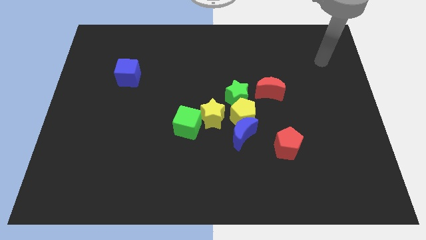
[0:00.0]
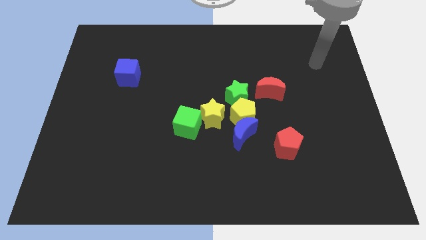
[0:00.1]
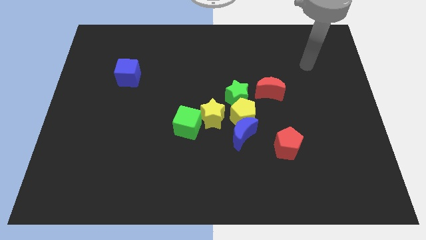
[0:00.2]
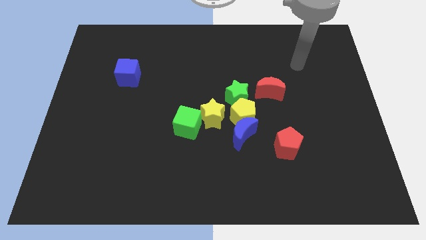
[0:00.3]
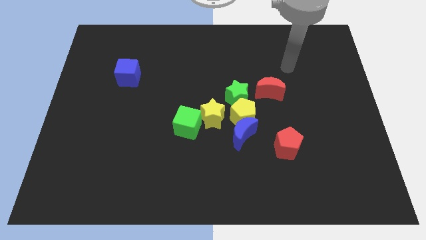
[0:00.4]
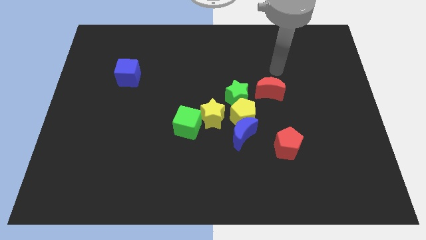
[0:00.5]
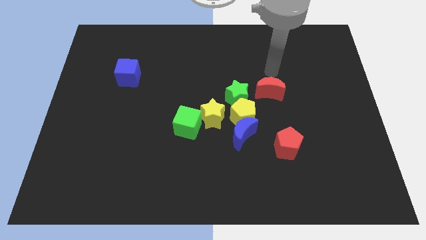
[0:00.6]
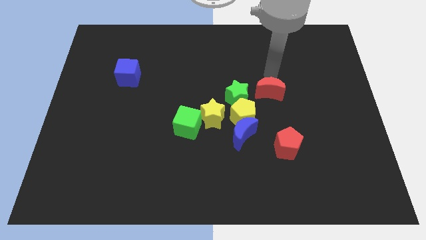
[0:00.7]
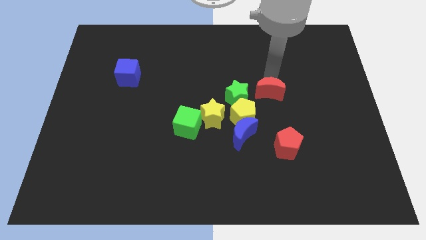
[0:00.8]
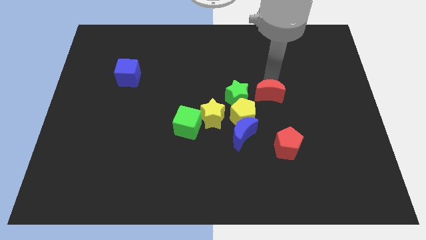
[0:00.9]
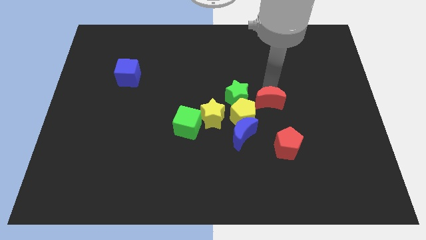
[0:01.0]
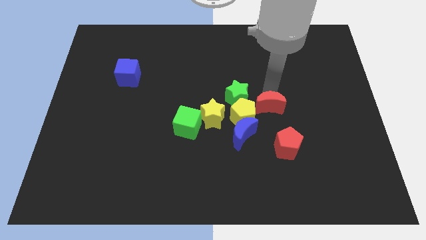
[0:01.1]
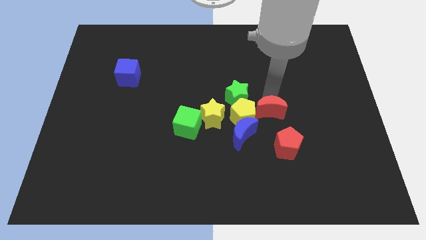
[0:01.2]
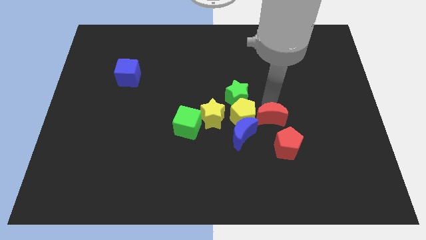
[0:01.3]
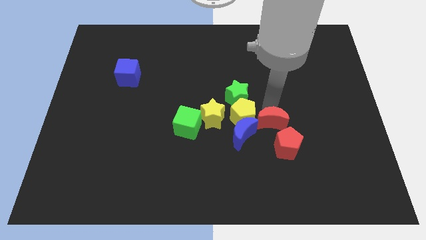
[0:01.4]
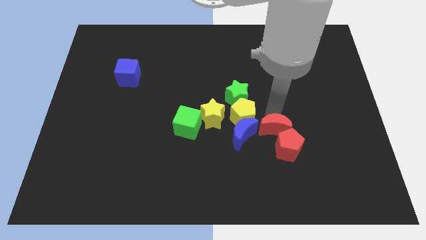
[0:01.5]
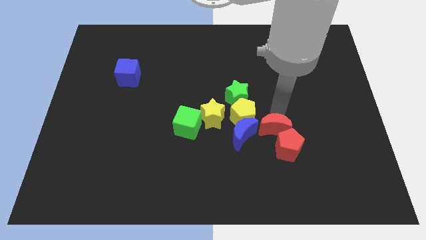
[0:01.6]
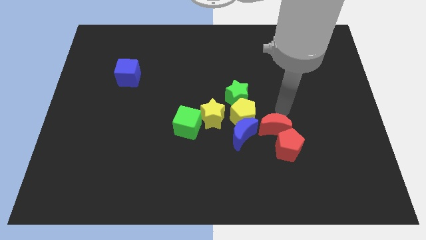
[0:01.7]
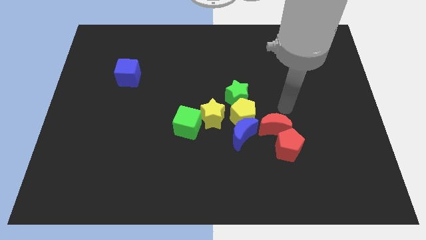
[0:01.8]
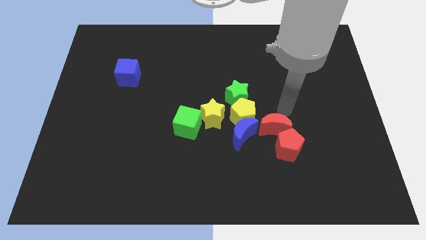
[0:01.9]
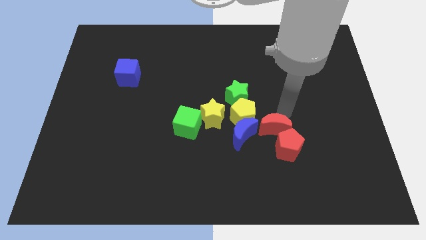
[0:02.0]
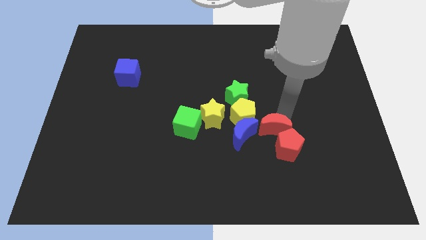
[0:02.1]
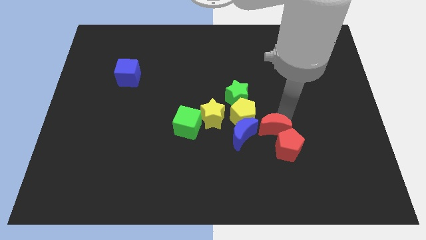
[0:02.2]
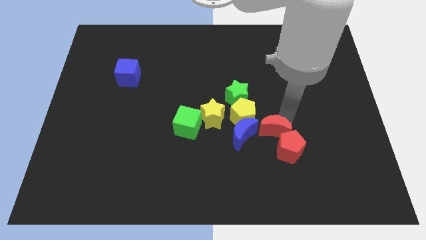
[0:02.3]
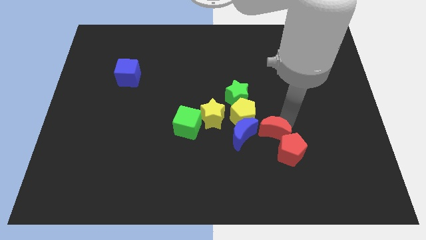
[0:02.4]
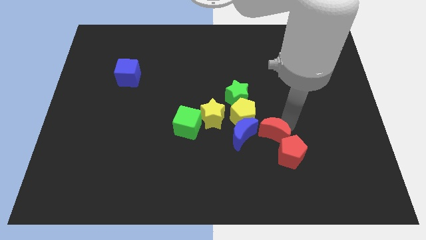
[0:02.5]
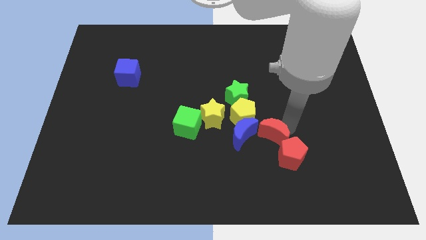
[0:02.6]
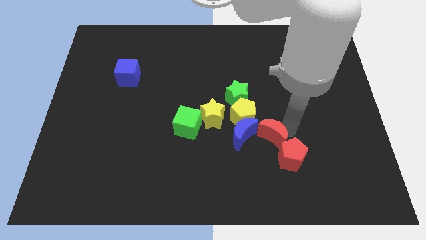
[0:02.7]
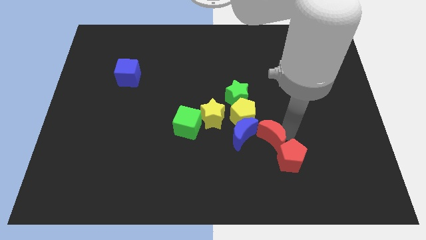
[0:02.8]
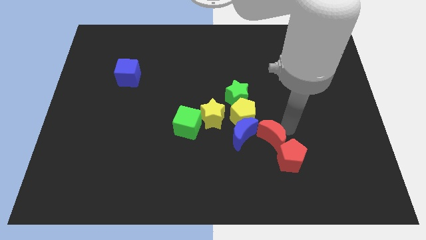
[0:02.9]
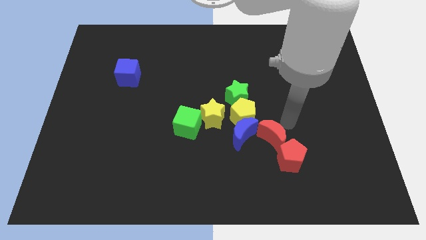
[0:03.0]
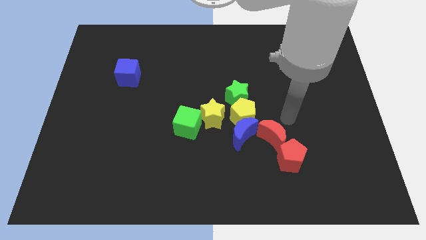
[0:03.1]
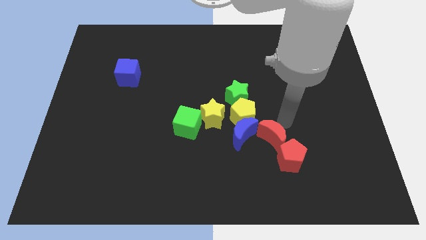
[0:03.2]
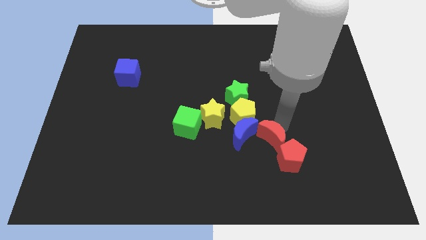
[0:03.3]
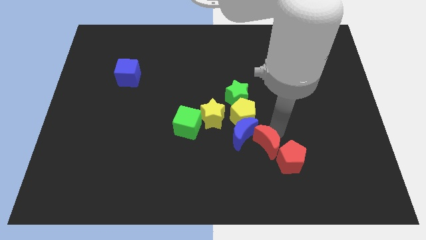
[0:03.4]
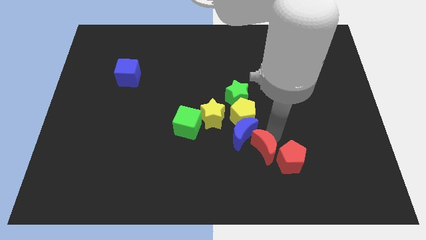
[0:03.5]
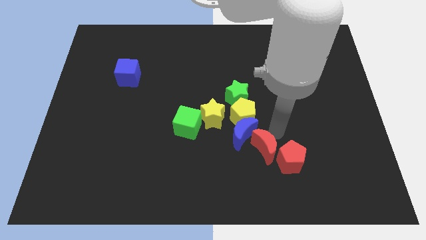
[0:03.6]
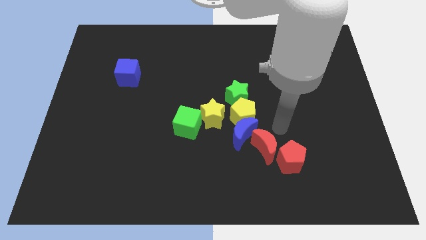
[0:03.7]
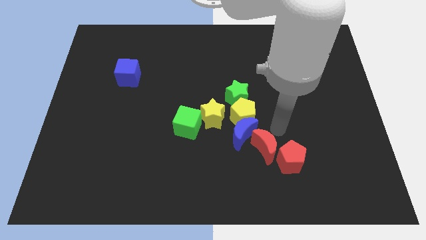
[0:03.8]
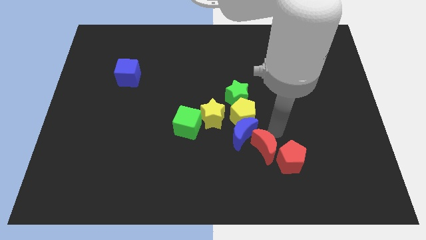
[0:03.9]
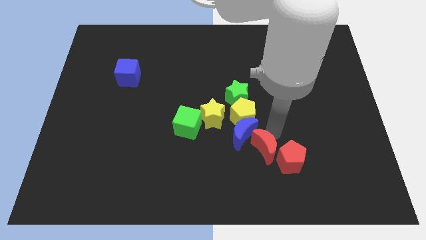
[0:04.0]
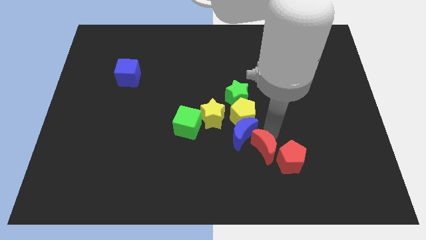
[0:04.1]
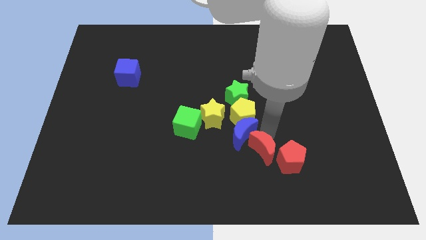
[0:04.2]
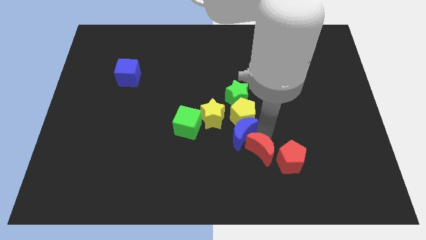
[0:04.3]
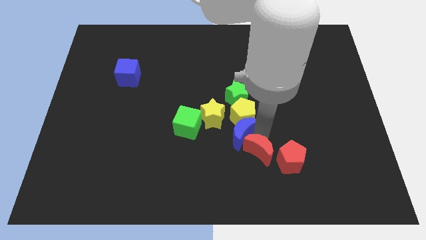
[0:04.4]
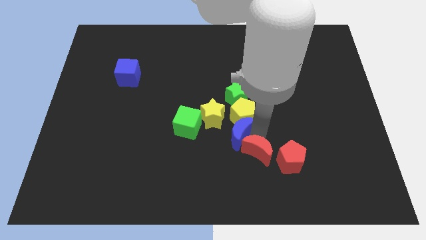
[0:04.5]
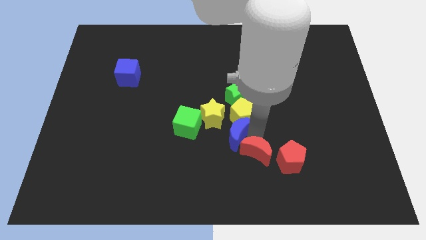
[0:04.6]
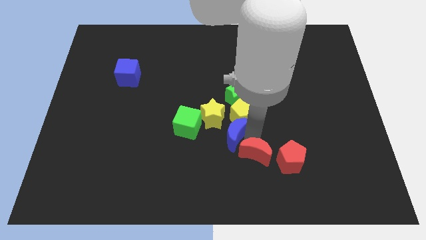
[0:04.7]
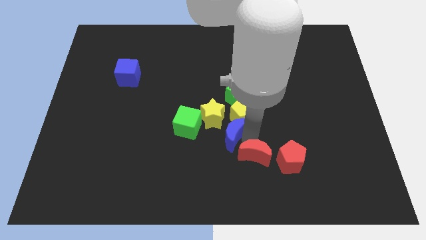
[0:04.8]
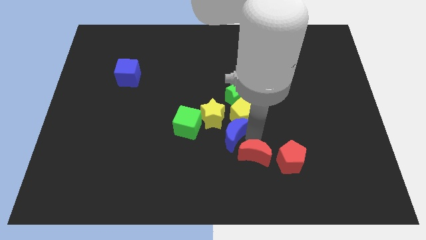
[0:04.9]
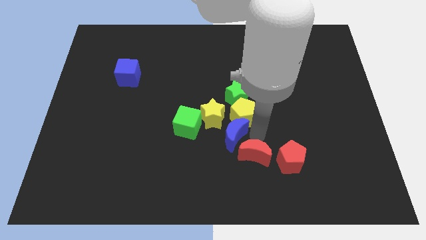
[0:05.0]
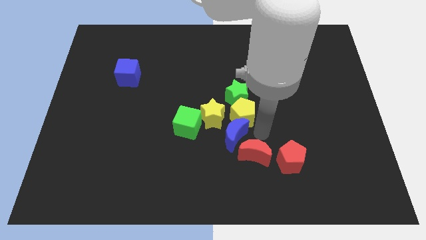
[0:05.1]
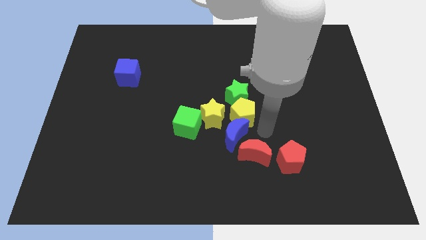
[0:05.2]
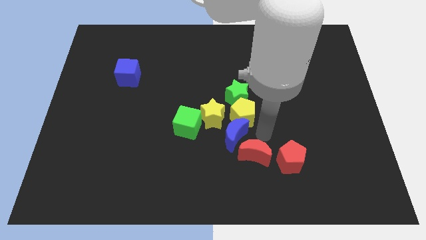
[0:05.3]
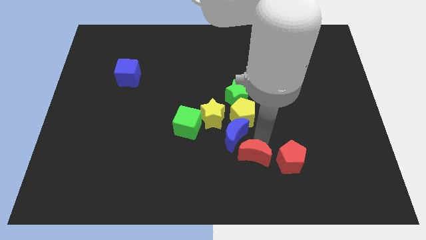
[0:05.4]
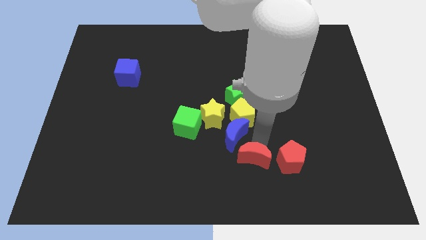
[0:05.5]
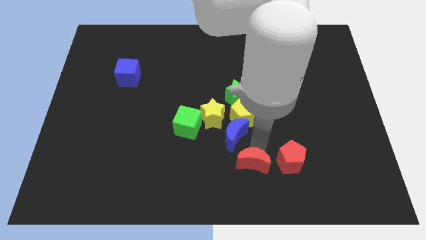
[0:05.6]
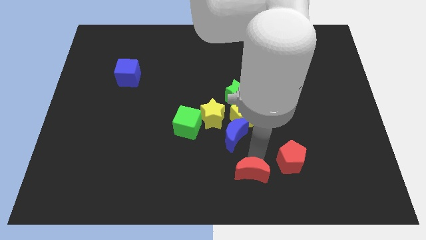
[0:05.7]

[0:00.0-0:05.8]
slide the red moon to the bottom side

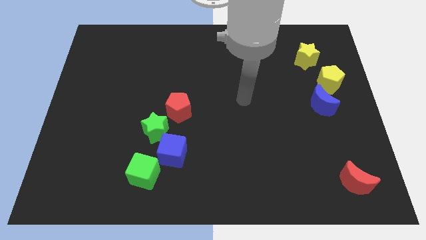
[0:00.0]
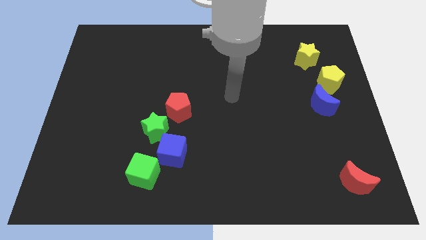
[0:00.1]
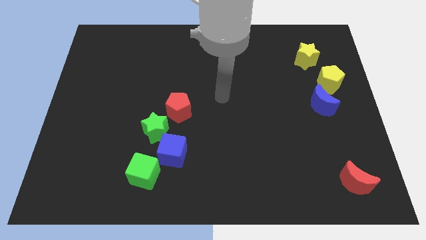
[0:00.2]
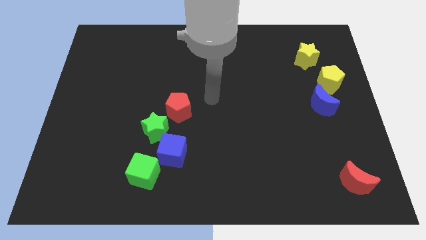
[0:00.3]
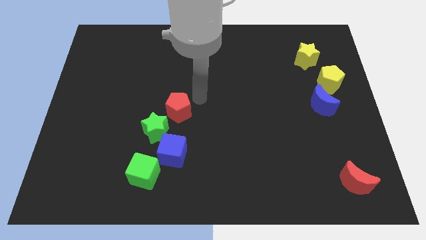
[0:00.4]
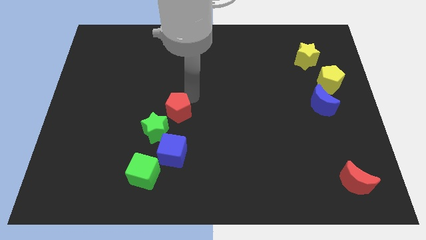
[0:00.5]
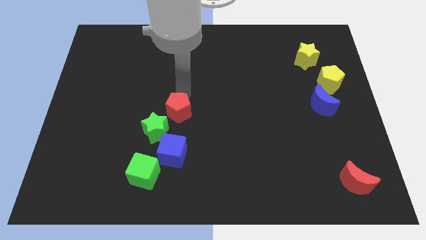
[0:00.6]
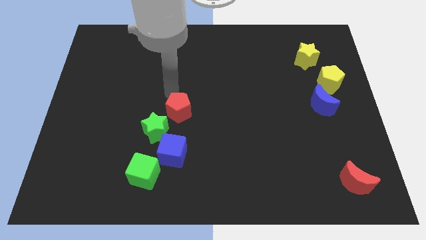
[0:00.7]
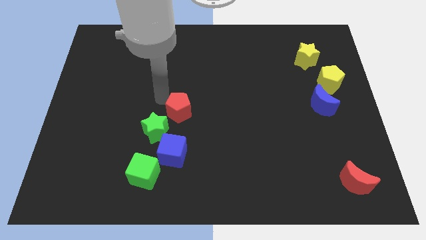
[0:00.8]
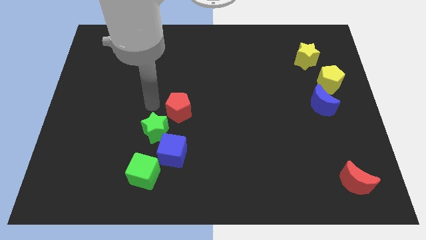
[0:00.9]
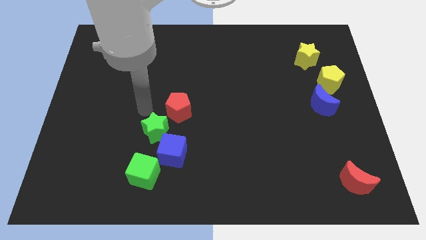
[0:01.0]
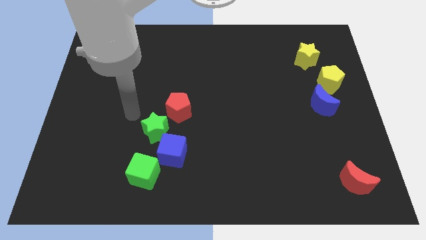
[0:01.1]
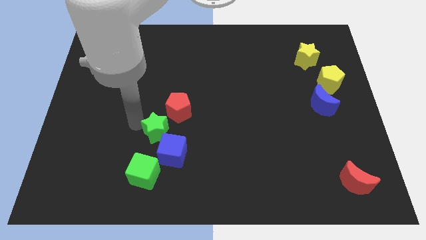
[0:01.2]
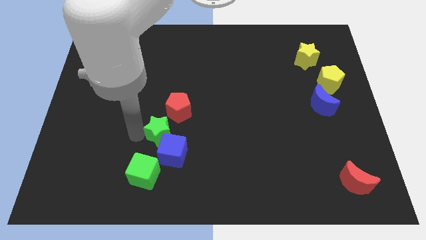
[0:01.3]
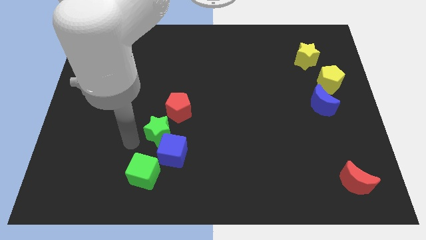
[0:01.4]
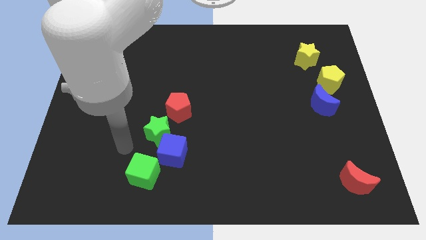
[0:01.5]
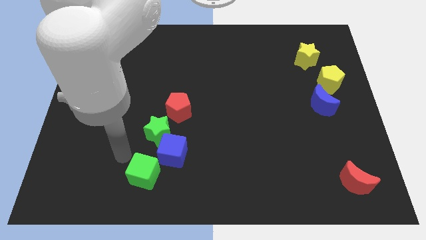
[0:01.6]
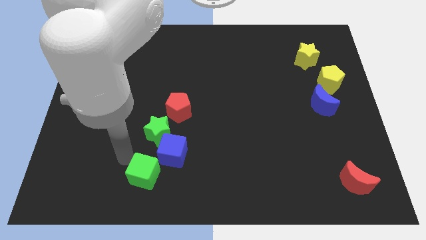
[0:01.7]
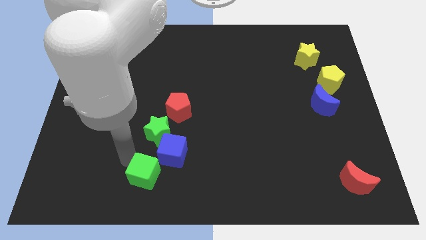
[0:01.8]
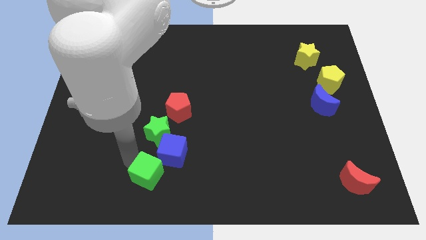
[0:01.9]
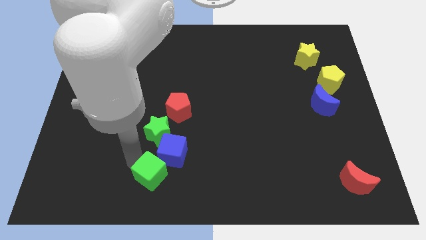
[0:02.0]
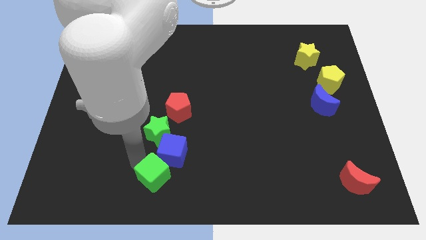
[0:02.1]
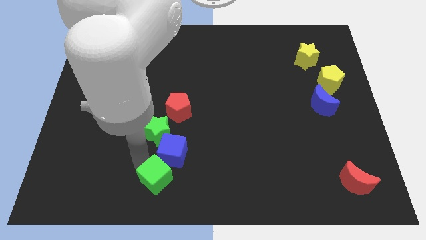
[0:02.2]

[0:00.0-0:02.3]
push the green cube to the bottom
